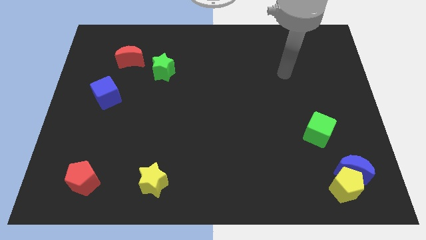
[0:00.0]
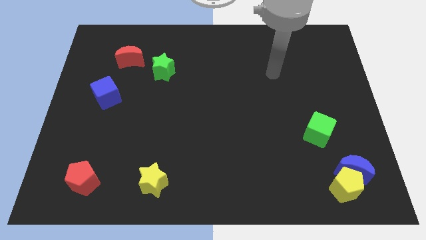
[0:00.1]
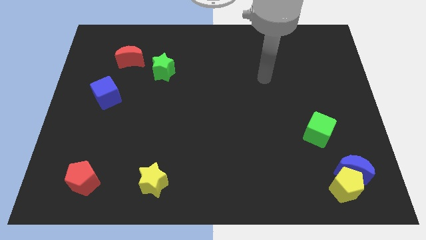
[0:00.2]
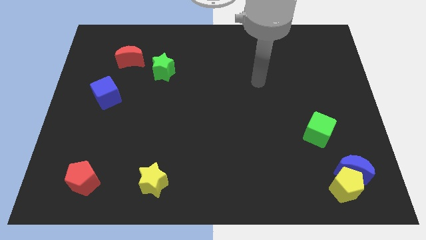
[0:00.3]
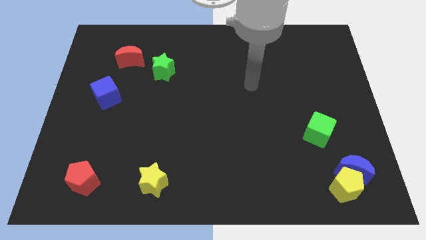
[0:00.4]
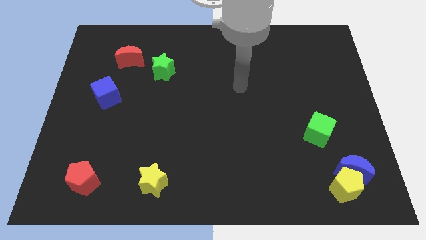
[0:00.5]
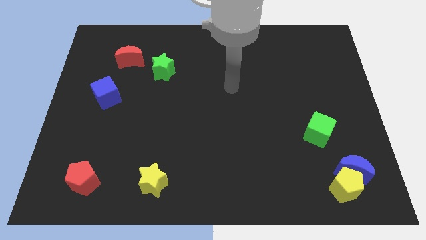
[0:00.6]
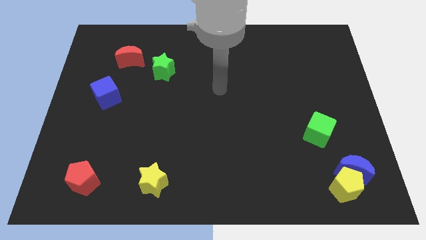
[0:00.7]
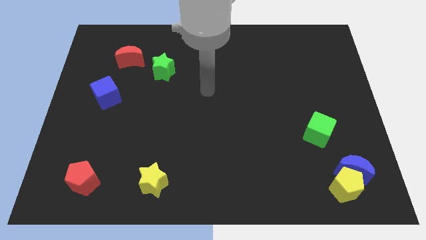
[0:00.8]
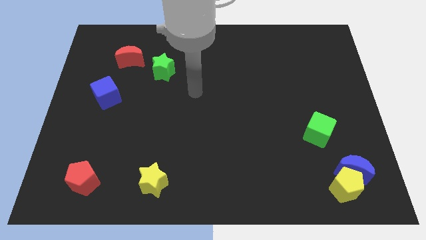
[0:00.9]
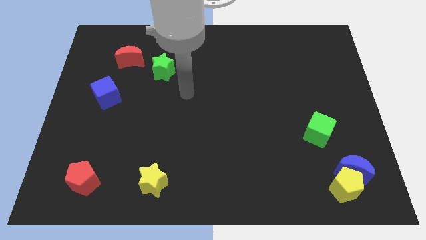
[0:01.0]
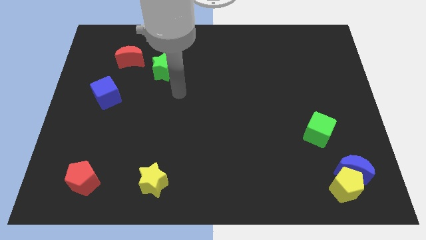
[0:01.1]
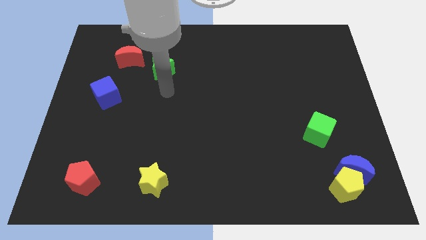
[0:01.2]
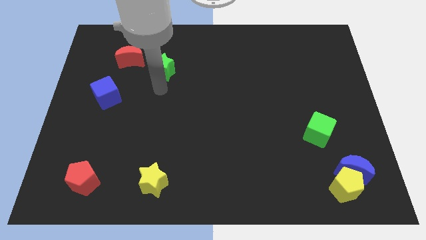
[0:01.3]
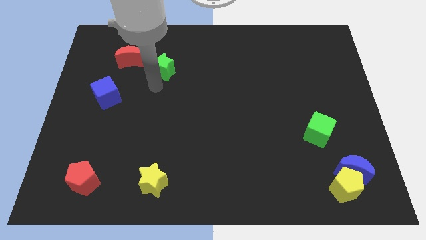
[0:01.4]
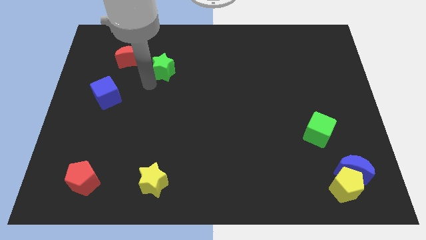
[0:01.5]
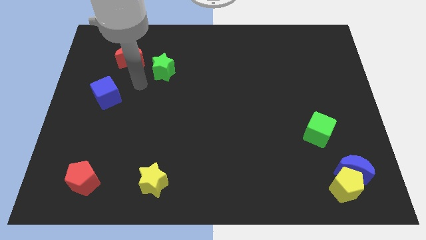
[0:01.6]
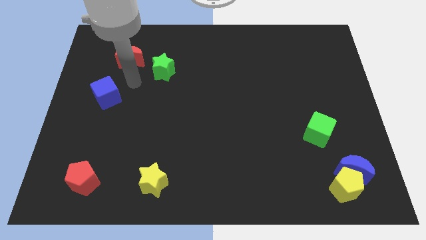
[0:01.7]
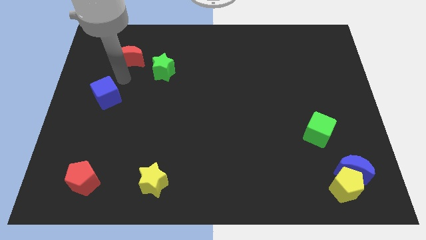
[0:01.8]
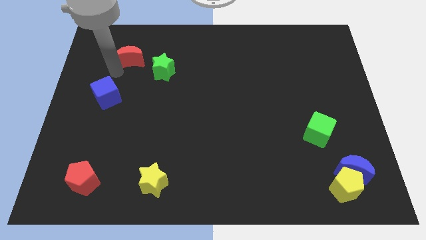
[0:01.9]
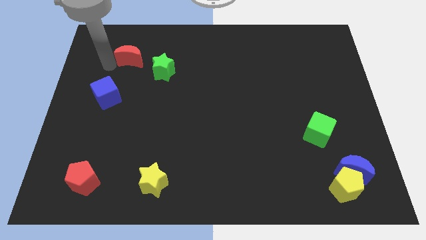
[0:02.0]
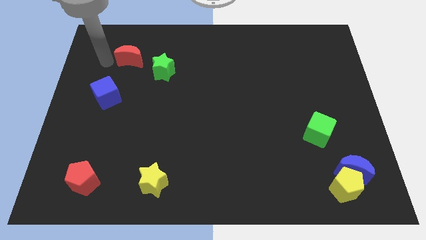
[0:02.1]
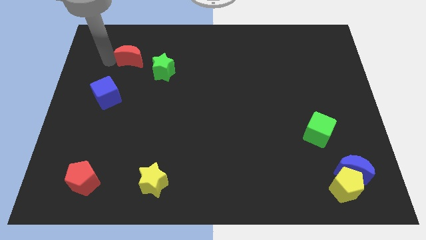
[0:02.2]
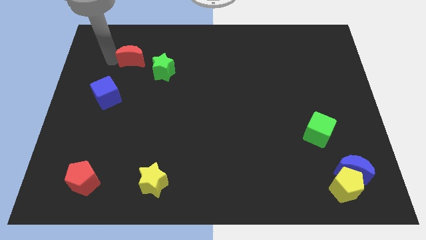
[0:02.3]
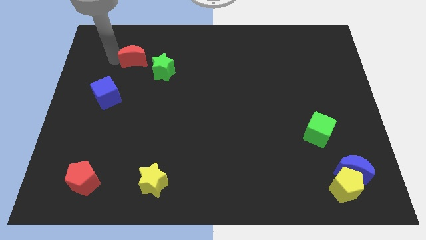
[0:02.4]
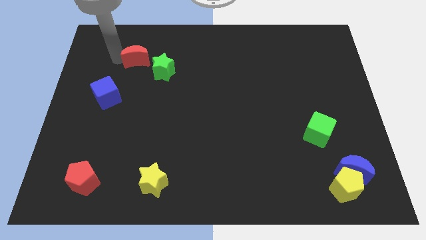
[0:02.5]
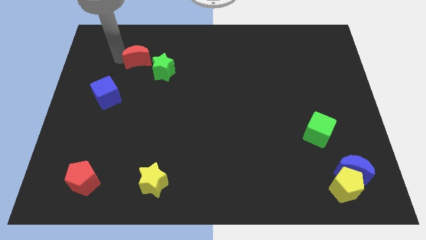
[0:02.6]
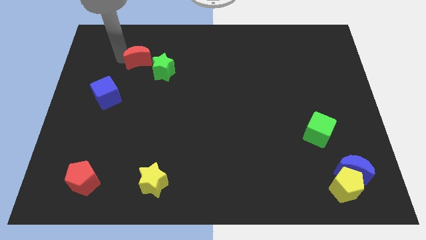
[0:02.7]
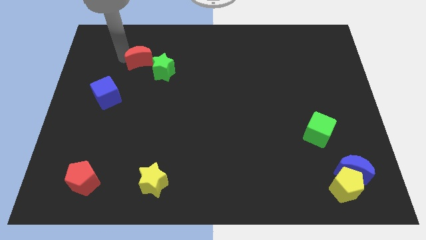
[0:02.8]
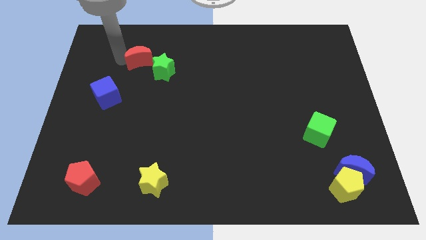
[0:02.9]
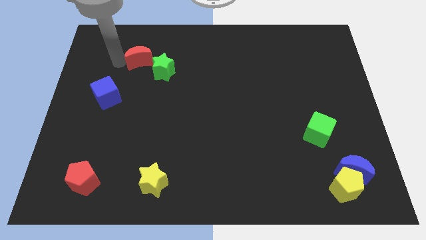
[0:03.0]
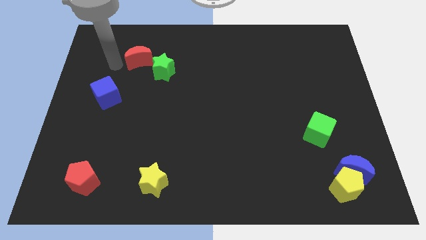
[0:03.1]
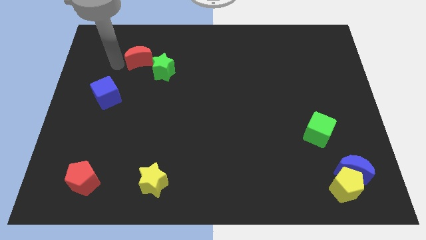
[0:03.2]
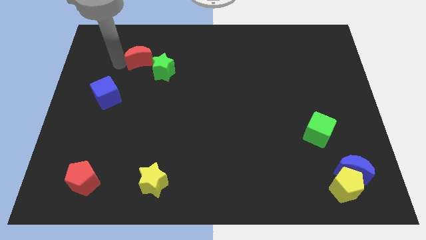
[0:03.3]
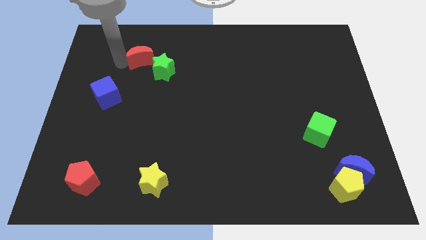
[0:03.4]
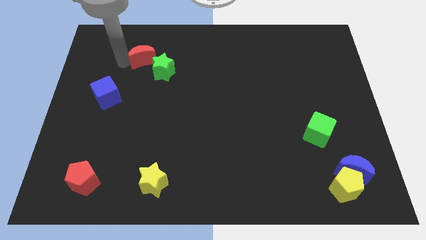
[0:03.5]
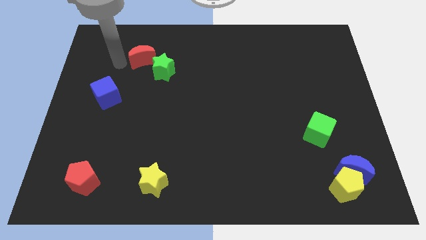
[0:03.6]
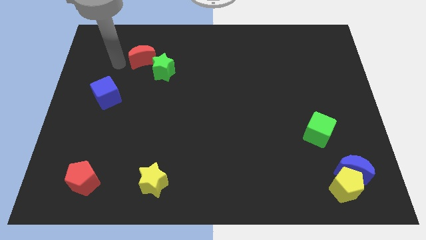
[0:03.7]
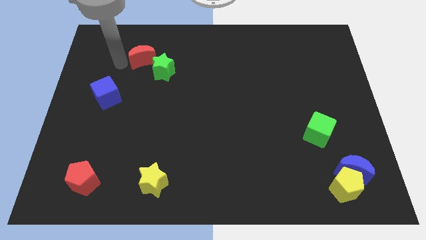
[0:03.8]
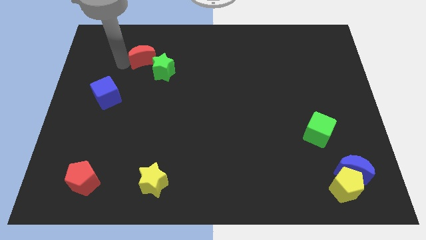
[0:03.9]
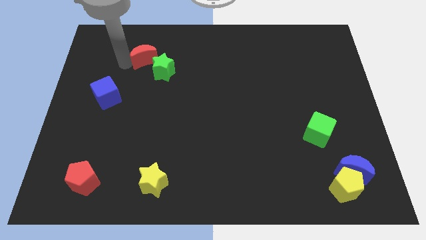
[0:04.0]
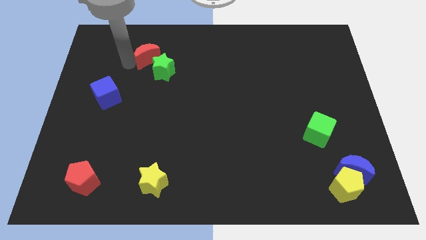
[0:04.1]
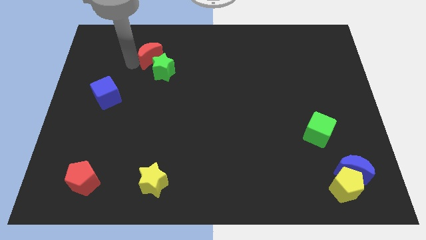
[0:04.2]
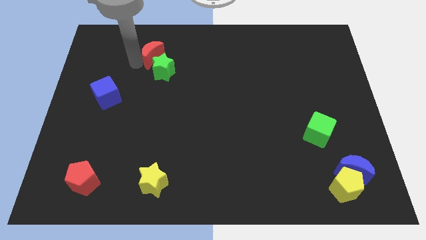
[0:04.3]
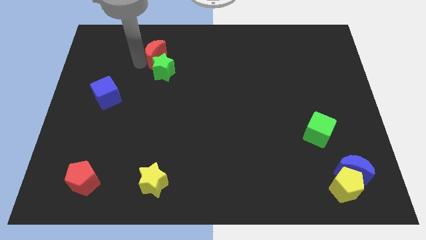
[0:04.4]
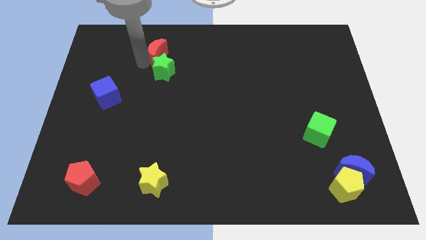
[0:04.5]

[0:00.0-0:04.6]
slightly move the red moon to the right

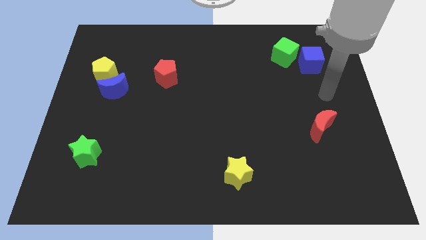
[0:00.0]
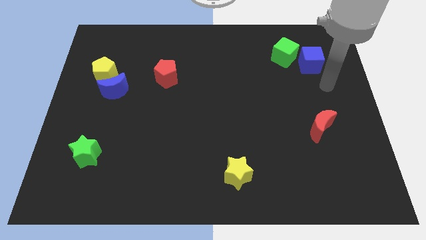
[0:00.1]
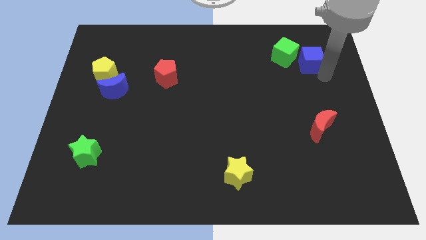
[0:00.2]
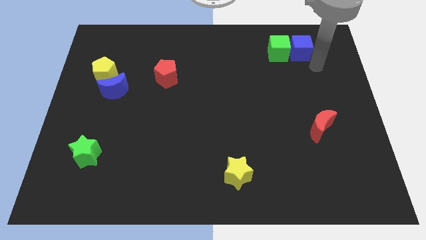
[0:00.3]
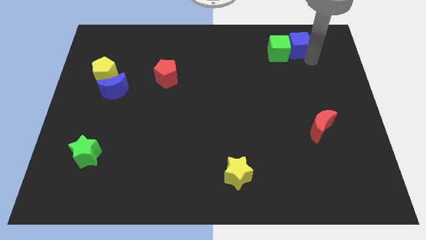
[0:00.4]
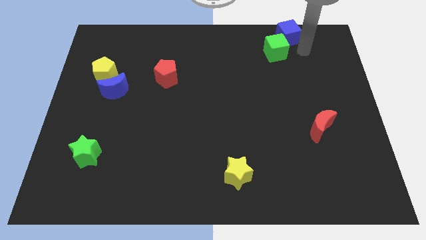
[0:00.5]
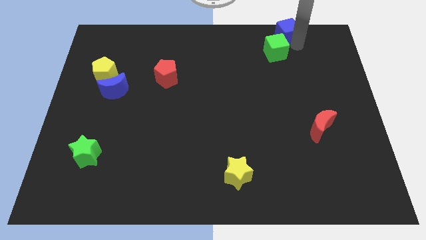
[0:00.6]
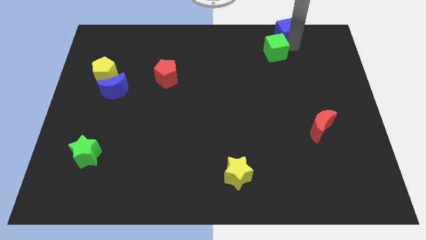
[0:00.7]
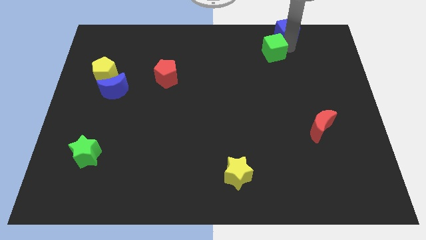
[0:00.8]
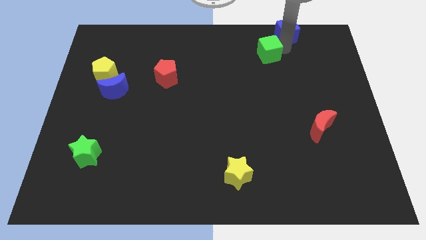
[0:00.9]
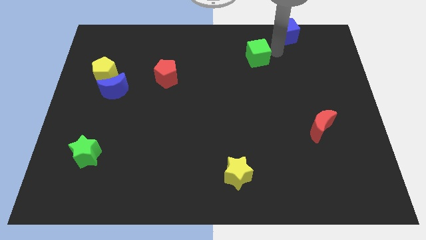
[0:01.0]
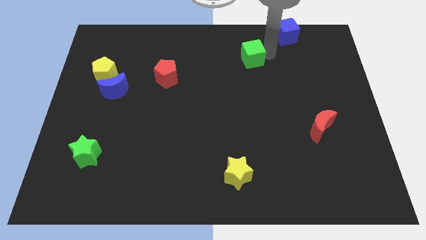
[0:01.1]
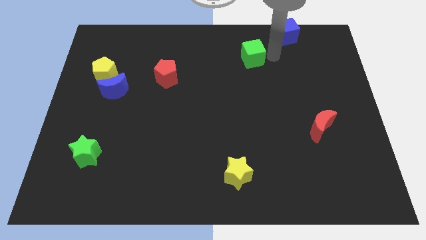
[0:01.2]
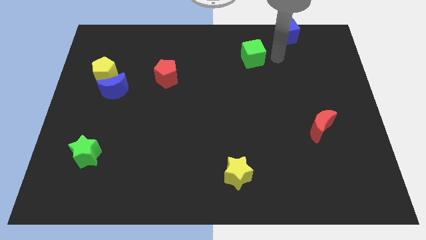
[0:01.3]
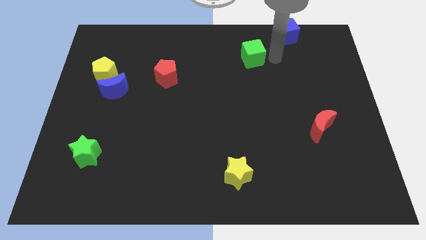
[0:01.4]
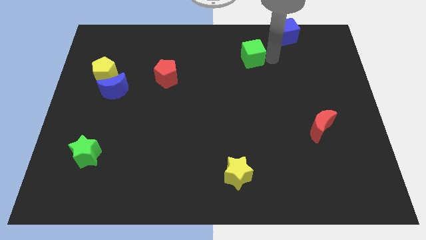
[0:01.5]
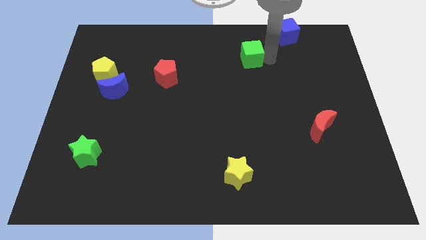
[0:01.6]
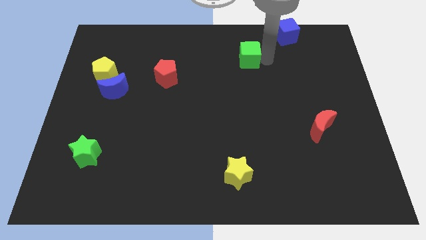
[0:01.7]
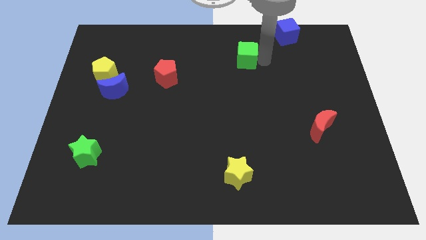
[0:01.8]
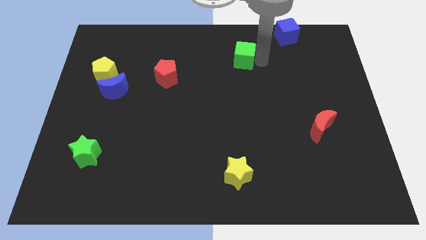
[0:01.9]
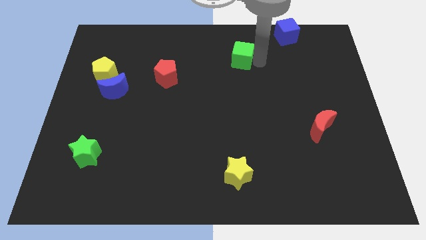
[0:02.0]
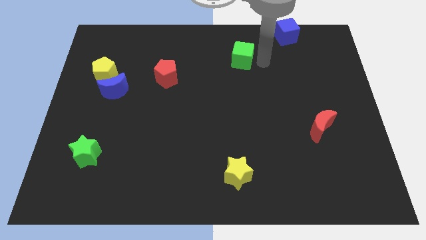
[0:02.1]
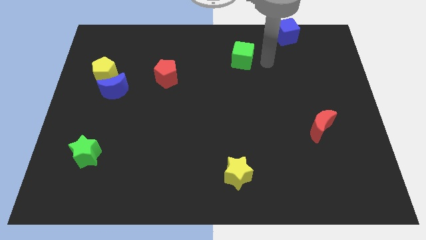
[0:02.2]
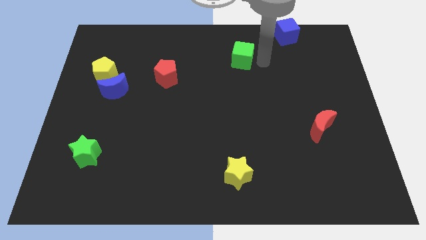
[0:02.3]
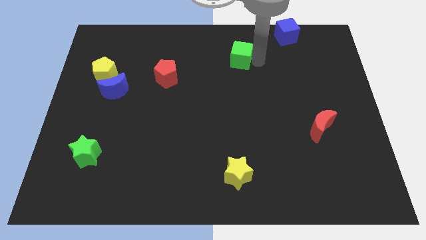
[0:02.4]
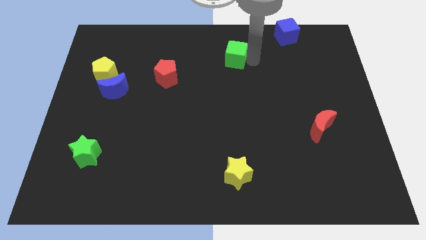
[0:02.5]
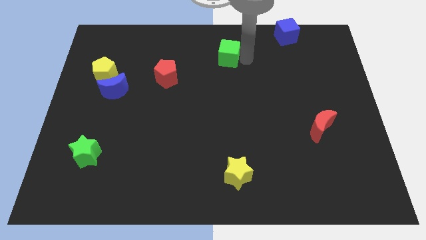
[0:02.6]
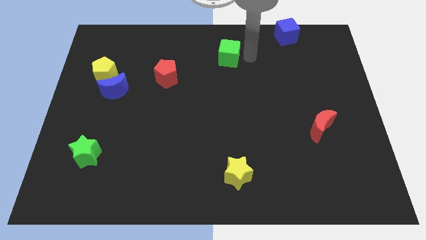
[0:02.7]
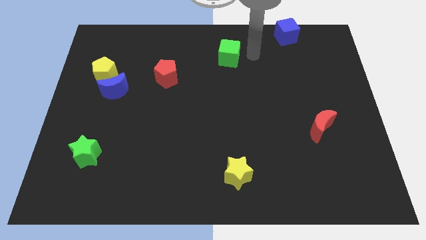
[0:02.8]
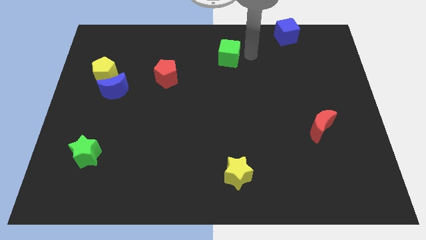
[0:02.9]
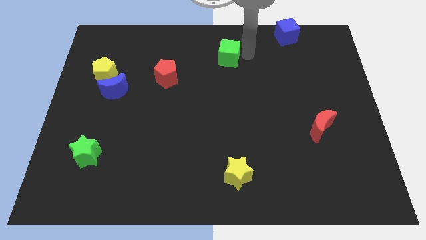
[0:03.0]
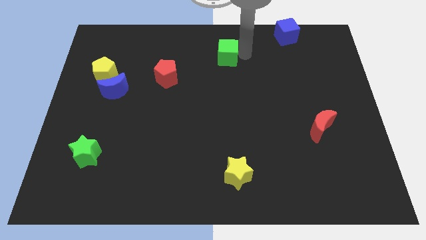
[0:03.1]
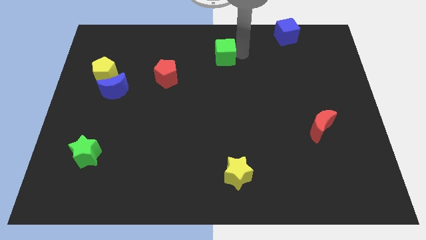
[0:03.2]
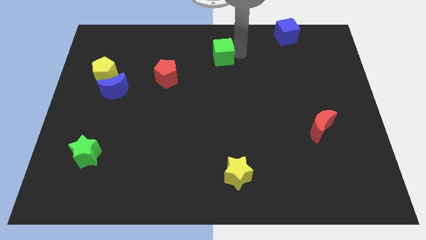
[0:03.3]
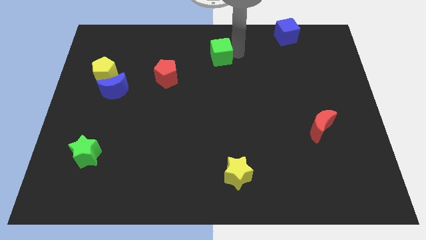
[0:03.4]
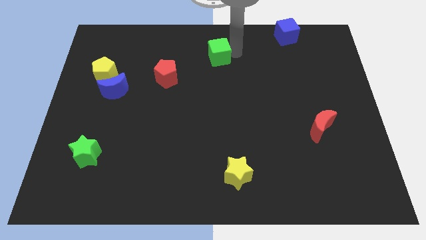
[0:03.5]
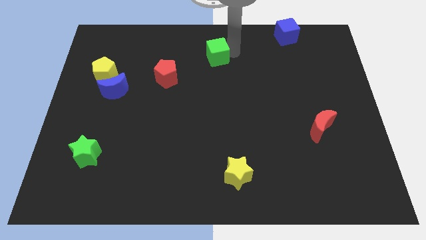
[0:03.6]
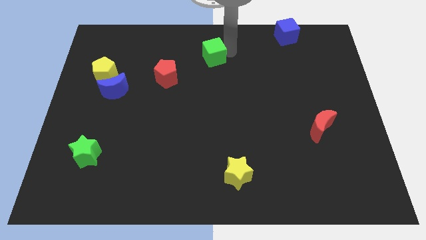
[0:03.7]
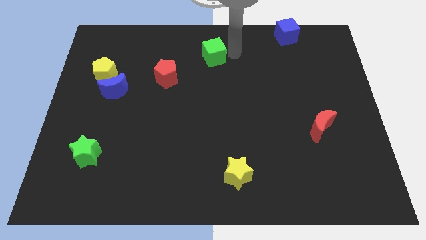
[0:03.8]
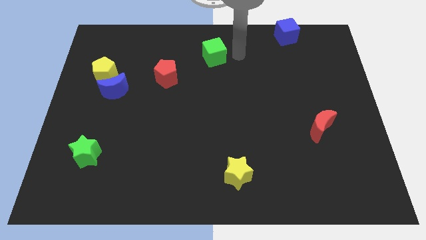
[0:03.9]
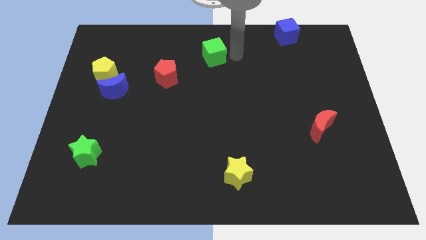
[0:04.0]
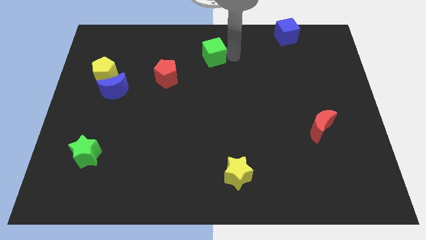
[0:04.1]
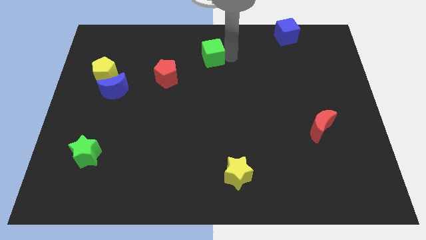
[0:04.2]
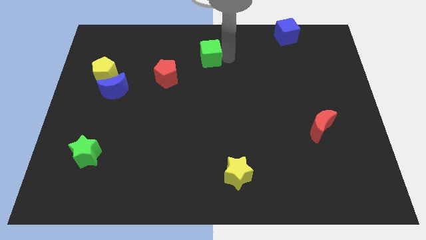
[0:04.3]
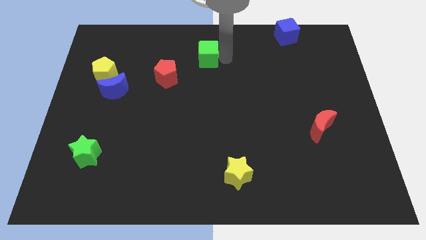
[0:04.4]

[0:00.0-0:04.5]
slide the green cube left
